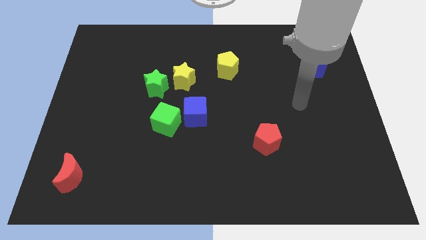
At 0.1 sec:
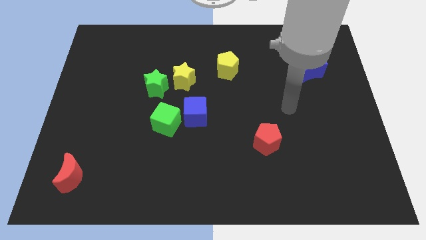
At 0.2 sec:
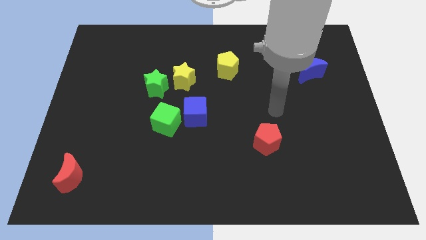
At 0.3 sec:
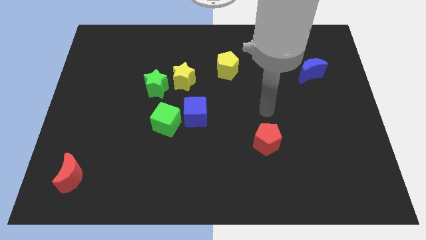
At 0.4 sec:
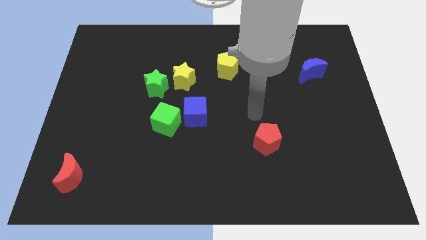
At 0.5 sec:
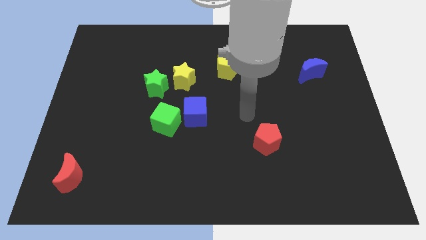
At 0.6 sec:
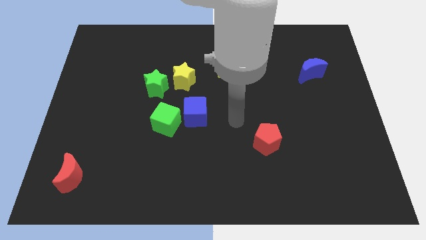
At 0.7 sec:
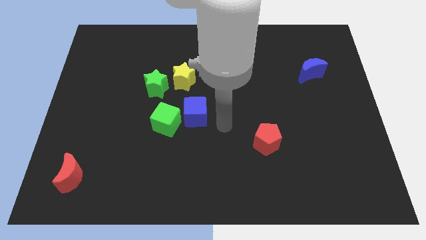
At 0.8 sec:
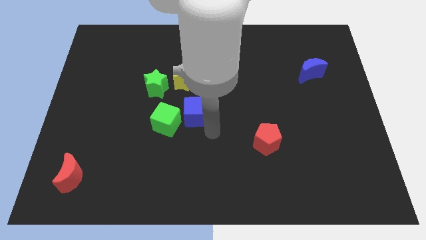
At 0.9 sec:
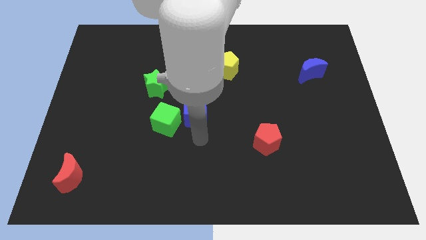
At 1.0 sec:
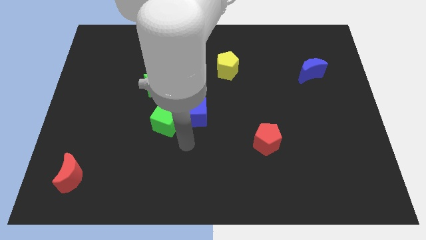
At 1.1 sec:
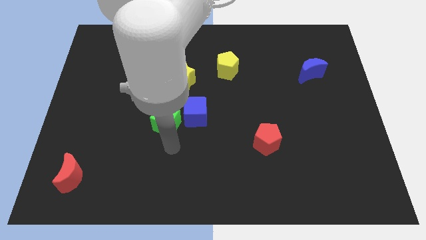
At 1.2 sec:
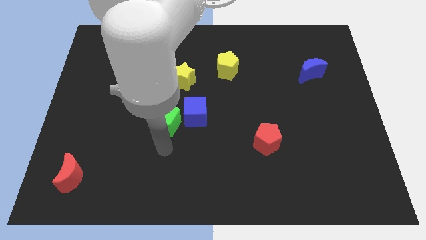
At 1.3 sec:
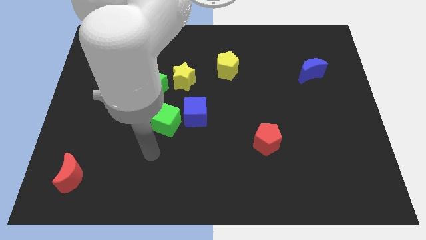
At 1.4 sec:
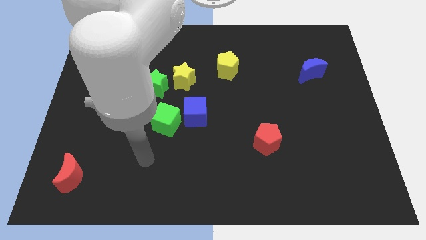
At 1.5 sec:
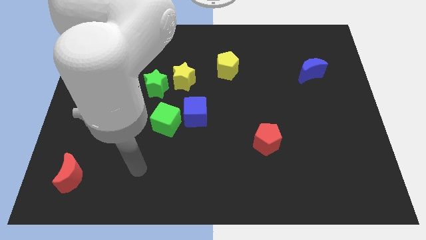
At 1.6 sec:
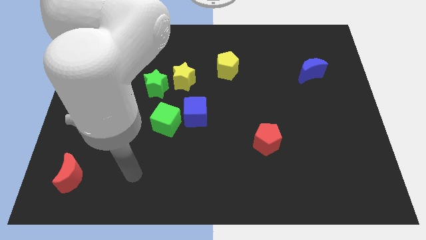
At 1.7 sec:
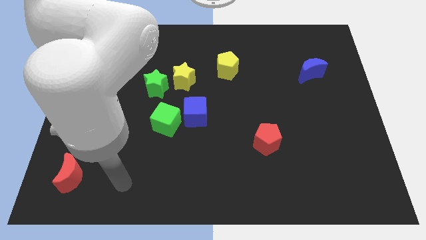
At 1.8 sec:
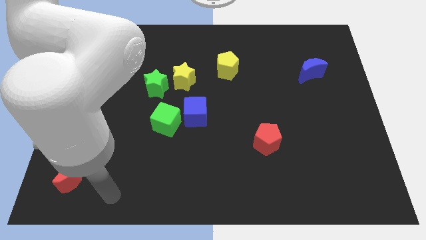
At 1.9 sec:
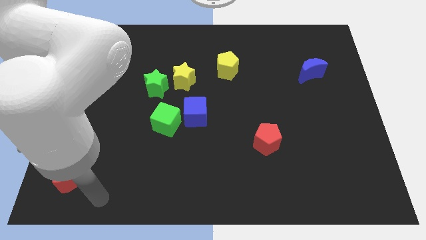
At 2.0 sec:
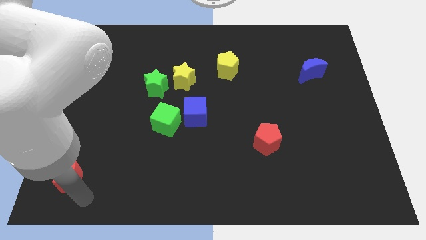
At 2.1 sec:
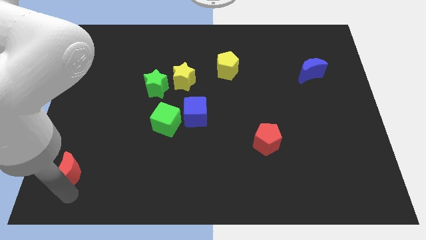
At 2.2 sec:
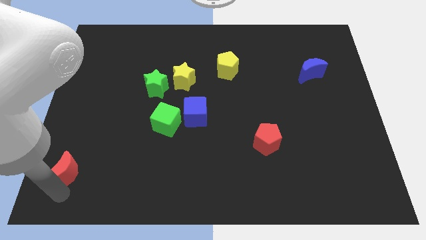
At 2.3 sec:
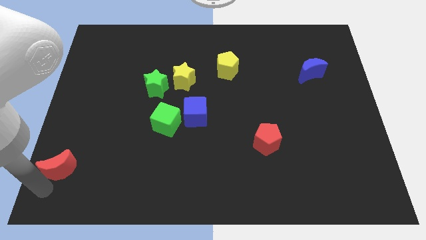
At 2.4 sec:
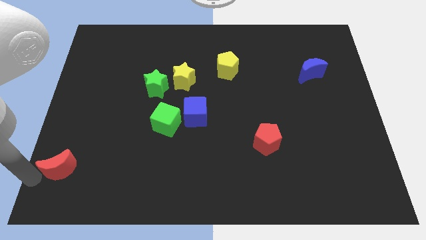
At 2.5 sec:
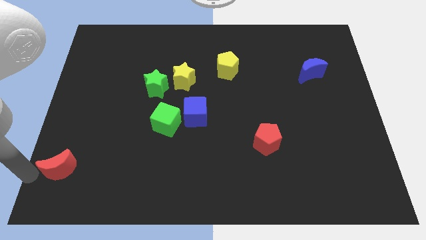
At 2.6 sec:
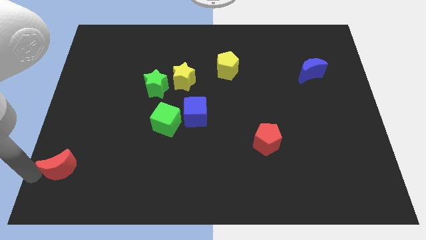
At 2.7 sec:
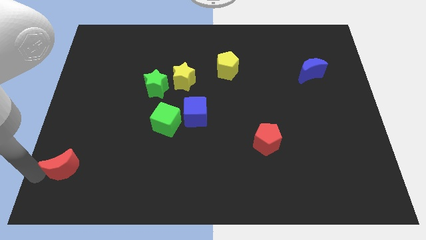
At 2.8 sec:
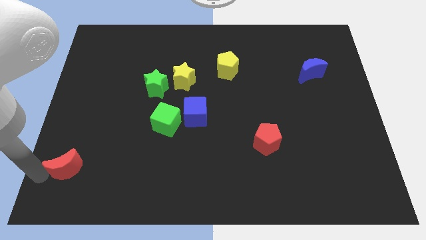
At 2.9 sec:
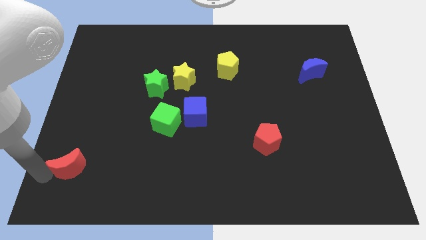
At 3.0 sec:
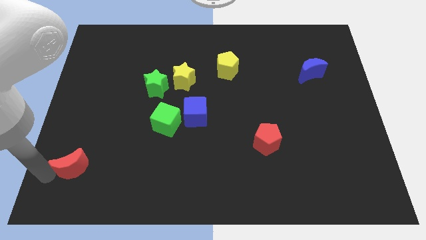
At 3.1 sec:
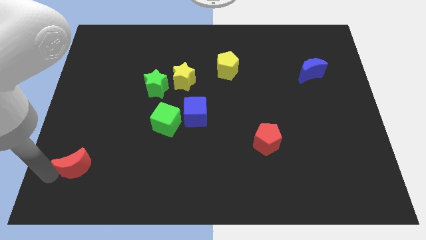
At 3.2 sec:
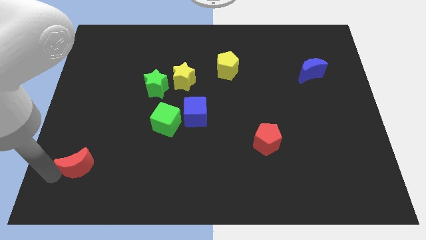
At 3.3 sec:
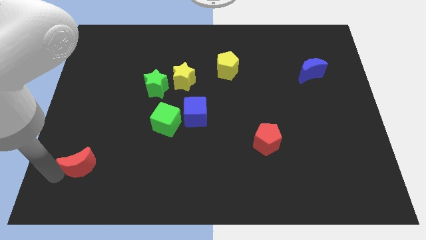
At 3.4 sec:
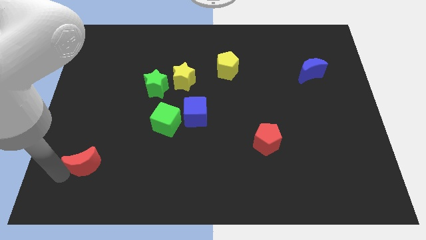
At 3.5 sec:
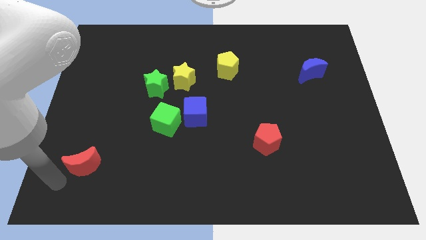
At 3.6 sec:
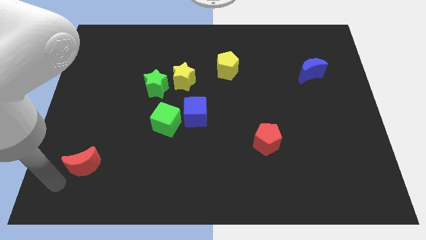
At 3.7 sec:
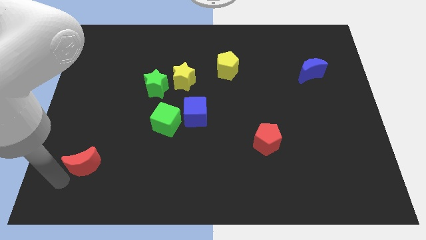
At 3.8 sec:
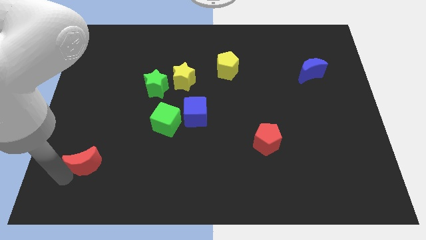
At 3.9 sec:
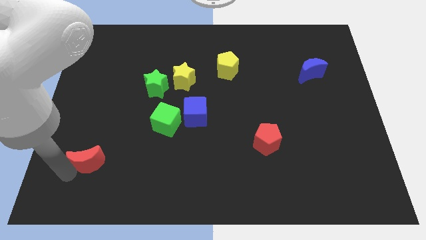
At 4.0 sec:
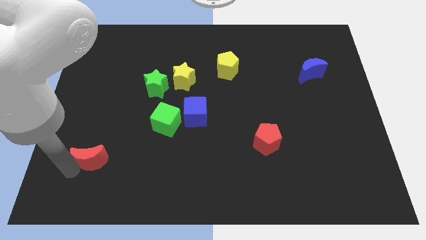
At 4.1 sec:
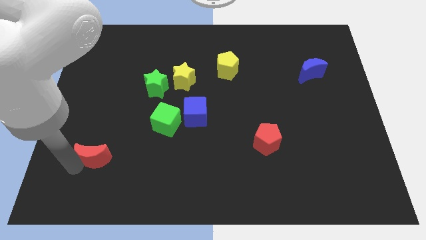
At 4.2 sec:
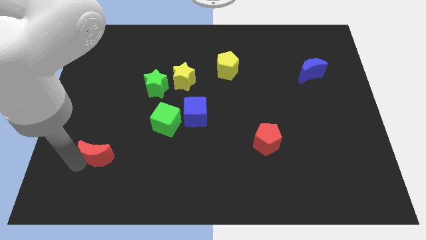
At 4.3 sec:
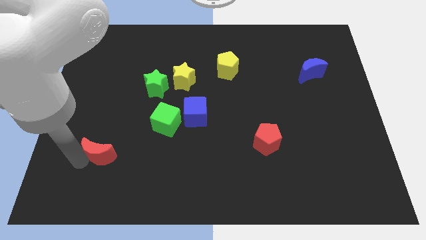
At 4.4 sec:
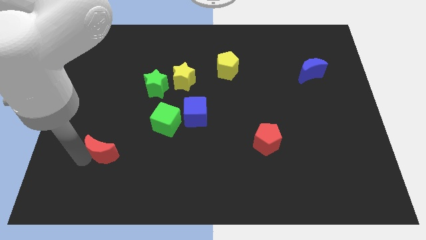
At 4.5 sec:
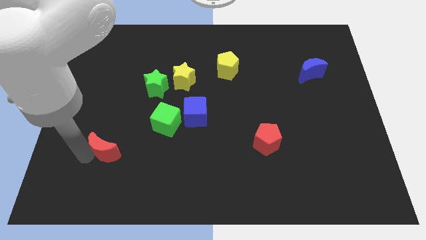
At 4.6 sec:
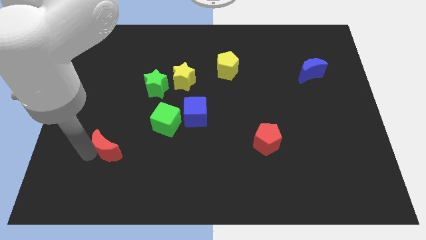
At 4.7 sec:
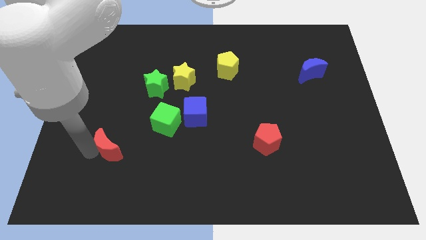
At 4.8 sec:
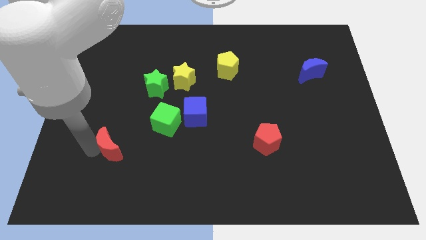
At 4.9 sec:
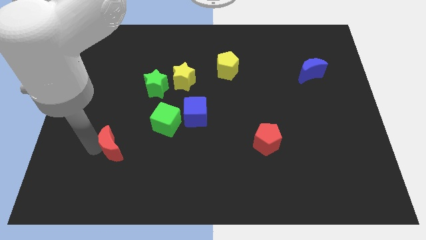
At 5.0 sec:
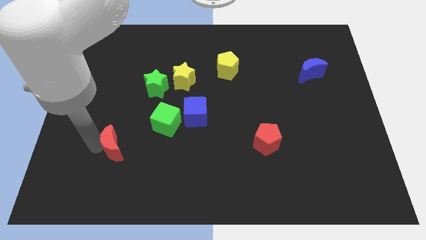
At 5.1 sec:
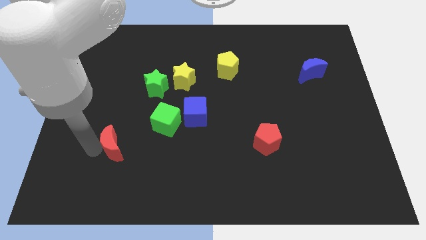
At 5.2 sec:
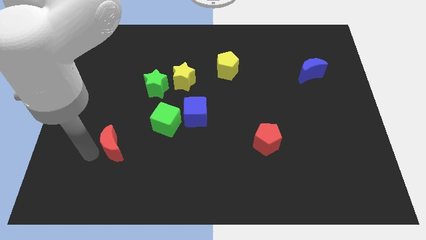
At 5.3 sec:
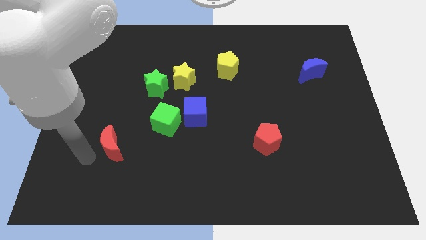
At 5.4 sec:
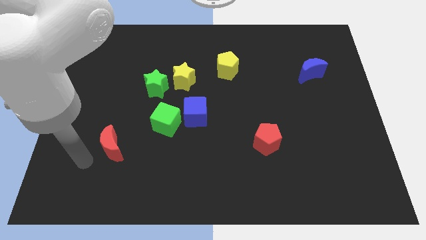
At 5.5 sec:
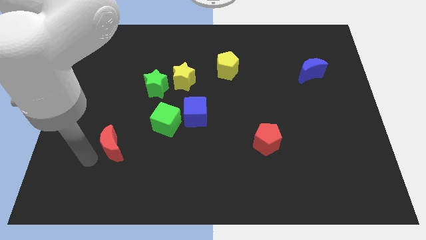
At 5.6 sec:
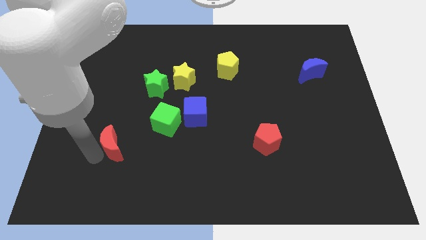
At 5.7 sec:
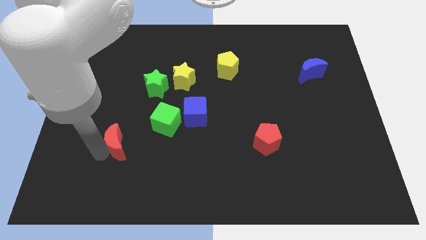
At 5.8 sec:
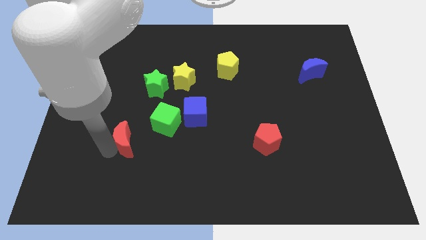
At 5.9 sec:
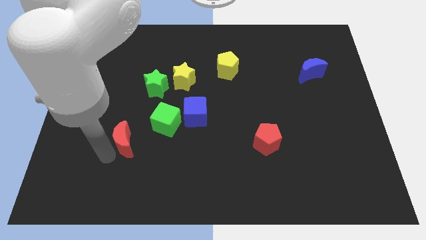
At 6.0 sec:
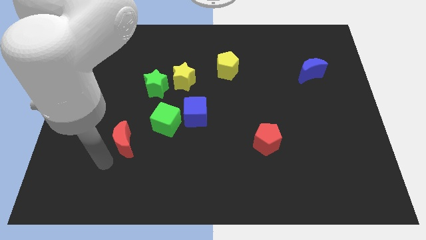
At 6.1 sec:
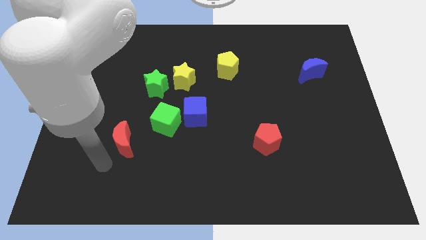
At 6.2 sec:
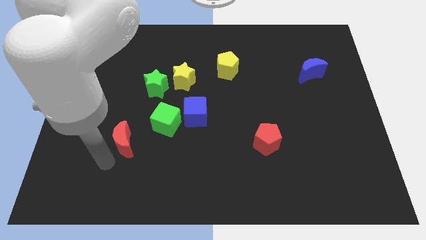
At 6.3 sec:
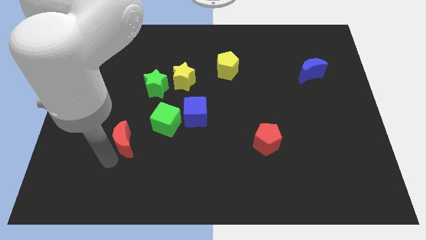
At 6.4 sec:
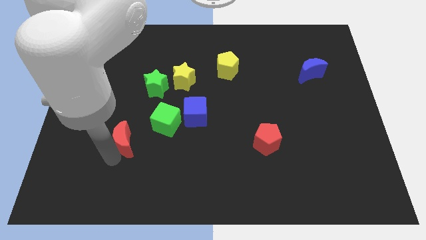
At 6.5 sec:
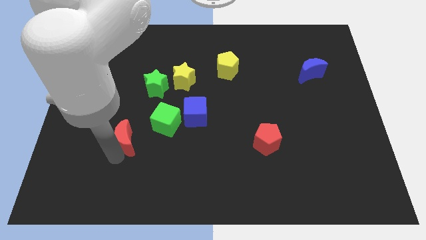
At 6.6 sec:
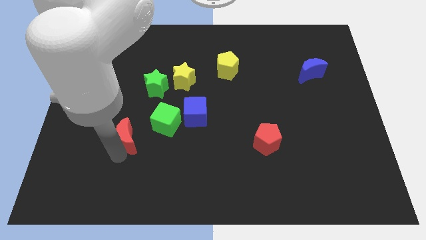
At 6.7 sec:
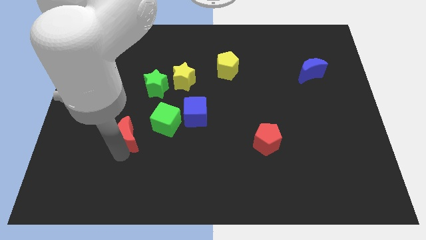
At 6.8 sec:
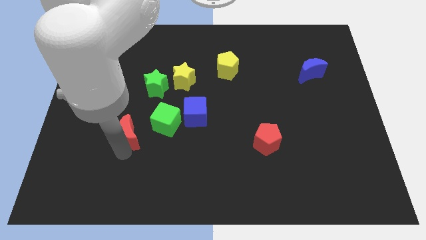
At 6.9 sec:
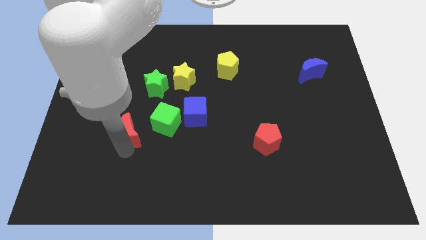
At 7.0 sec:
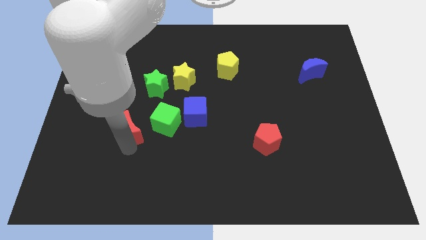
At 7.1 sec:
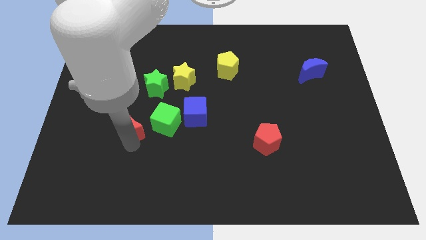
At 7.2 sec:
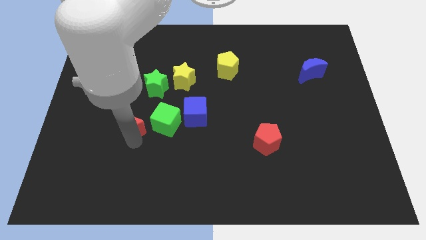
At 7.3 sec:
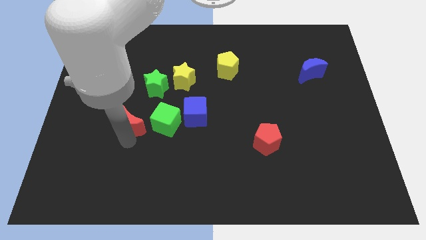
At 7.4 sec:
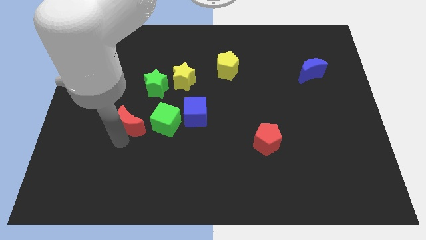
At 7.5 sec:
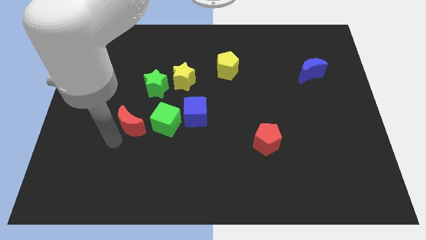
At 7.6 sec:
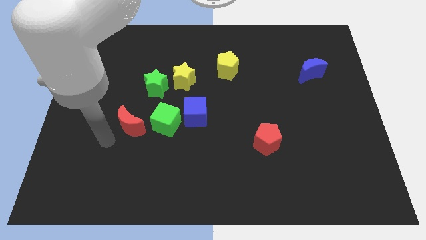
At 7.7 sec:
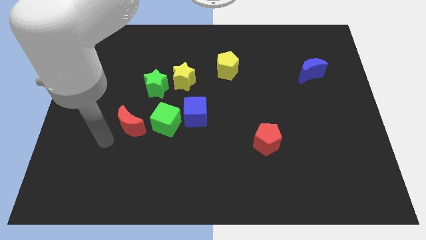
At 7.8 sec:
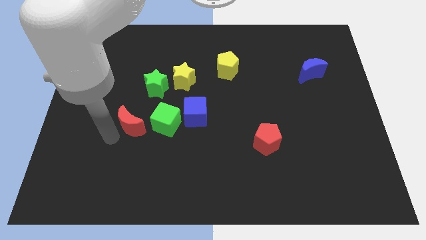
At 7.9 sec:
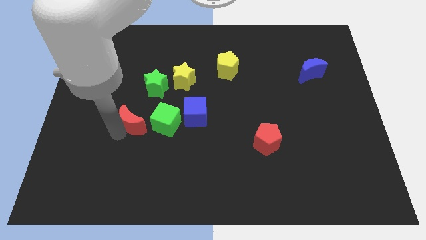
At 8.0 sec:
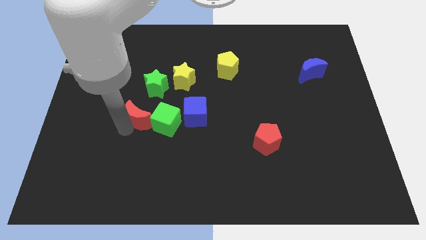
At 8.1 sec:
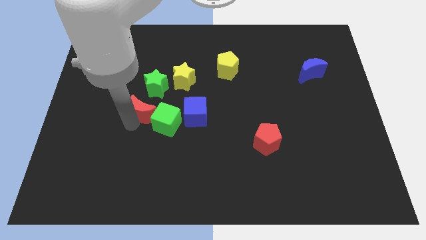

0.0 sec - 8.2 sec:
push the red moon up and then right
